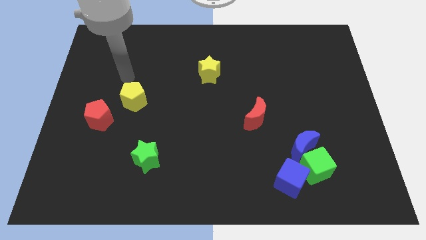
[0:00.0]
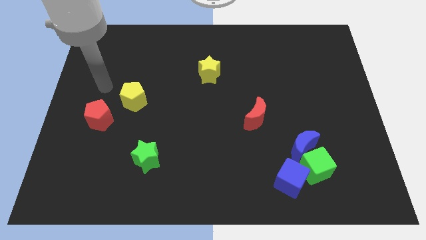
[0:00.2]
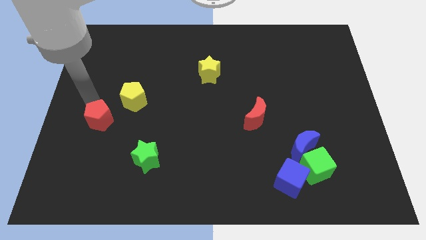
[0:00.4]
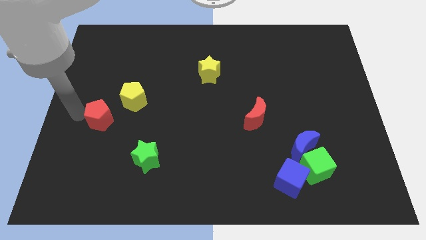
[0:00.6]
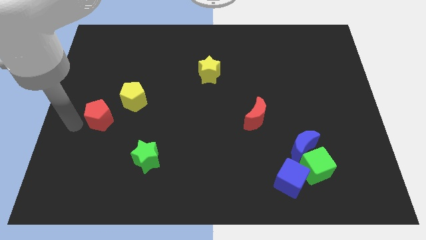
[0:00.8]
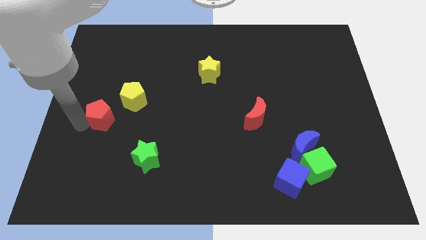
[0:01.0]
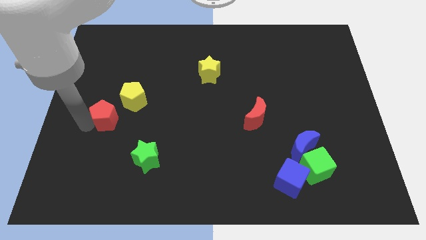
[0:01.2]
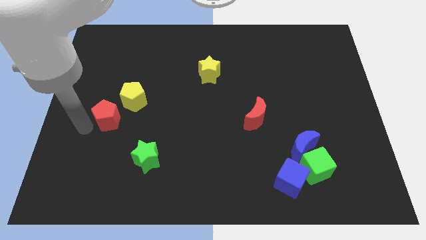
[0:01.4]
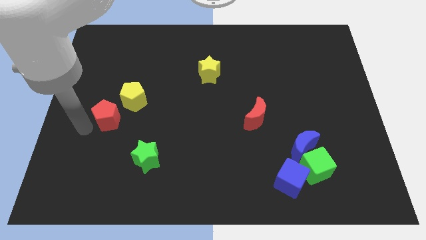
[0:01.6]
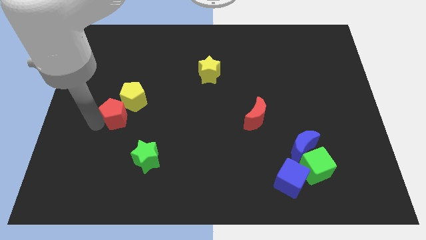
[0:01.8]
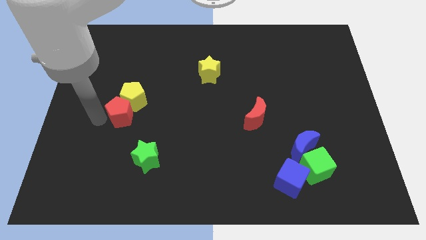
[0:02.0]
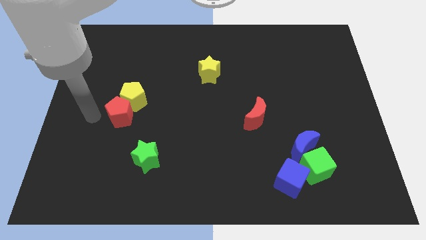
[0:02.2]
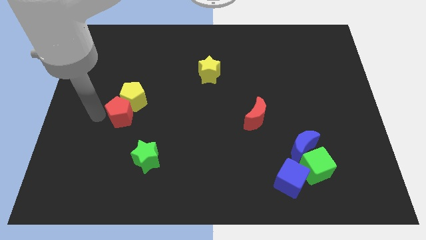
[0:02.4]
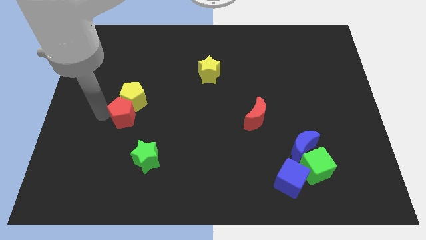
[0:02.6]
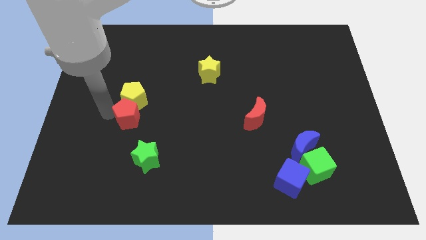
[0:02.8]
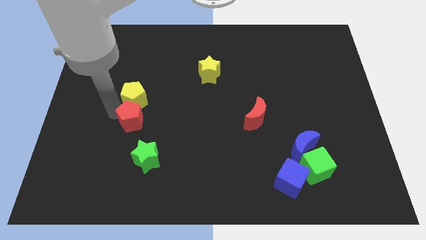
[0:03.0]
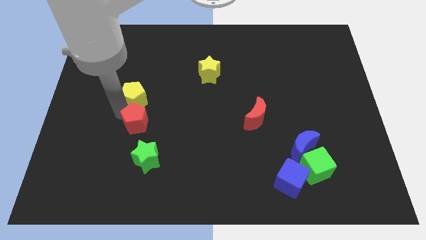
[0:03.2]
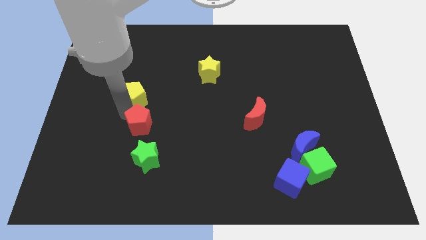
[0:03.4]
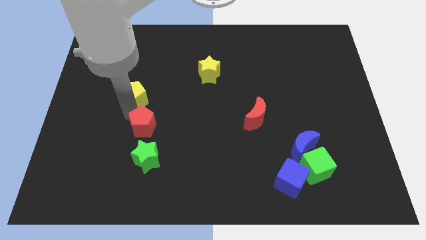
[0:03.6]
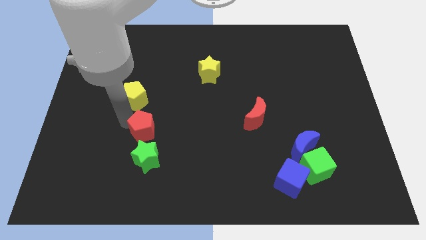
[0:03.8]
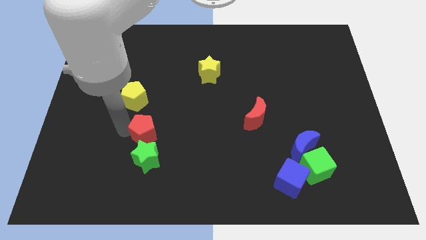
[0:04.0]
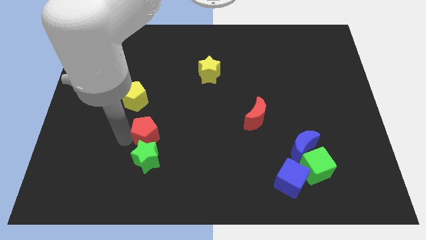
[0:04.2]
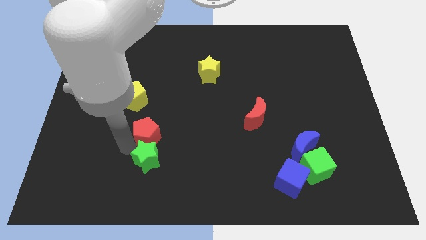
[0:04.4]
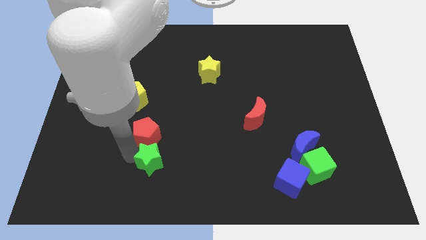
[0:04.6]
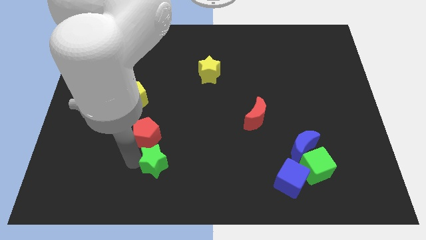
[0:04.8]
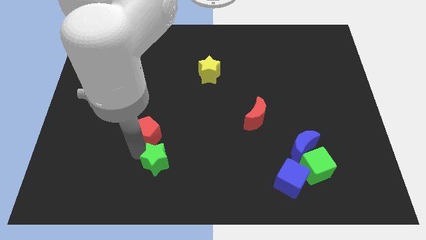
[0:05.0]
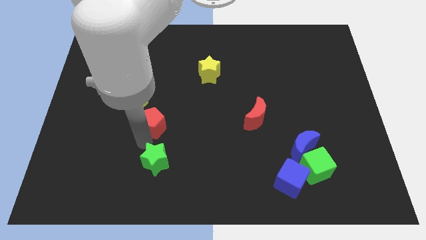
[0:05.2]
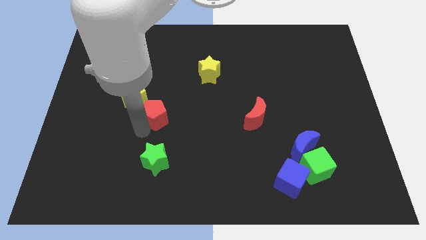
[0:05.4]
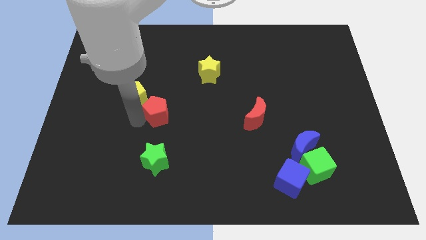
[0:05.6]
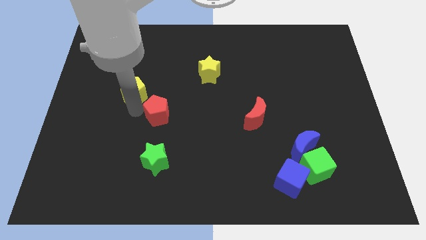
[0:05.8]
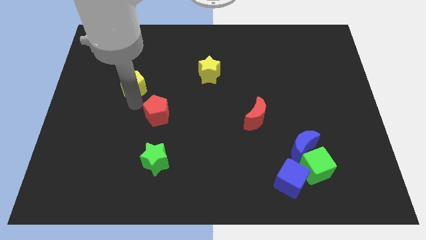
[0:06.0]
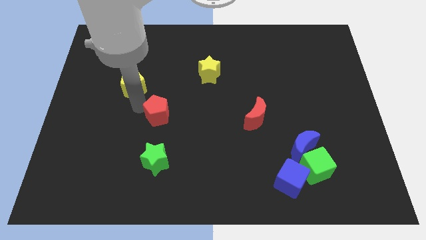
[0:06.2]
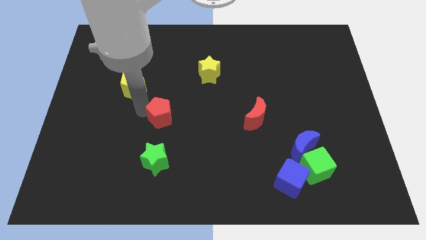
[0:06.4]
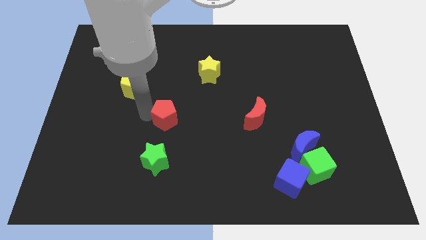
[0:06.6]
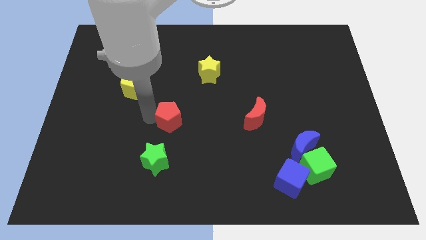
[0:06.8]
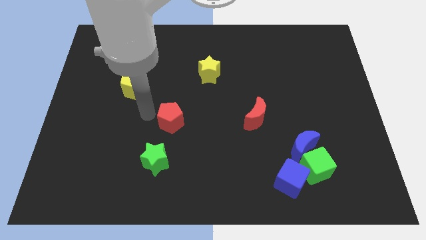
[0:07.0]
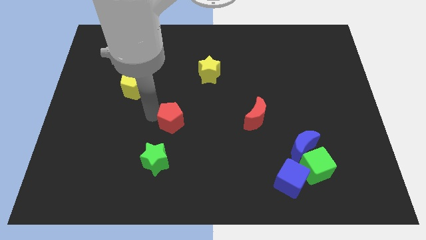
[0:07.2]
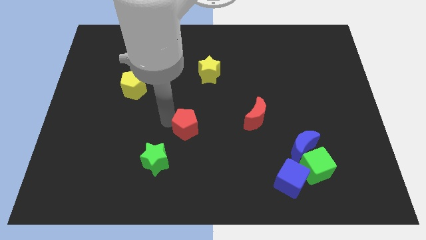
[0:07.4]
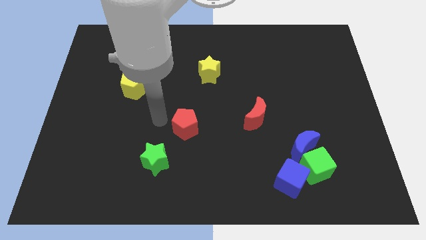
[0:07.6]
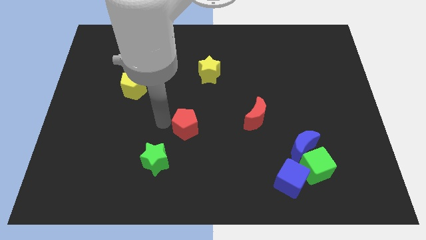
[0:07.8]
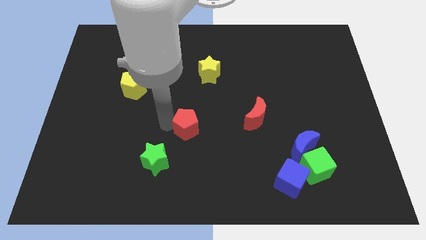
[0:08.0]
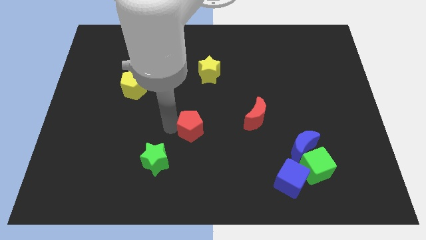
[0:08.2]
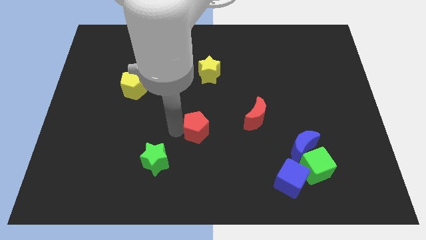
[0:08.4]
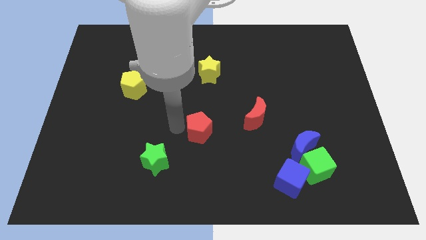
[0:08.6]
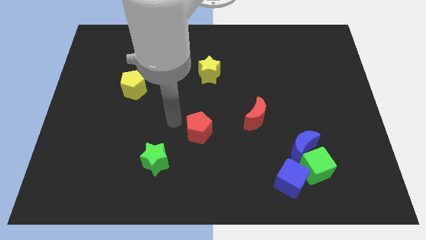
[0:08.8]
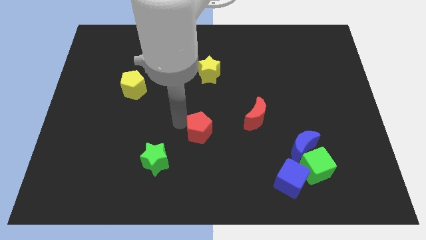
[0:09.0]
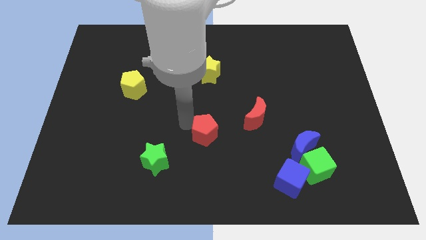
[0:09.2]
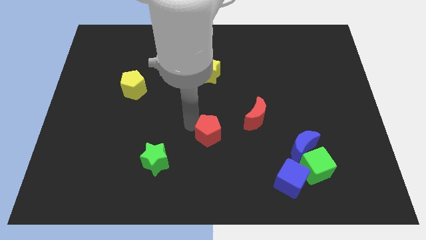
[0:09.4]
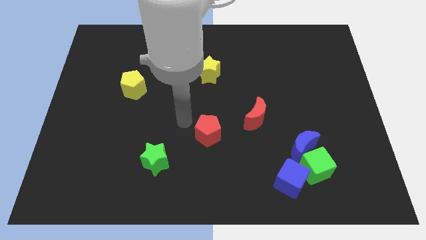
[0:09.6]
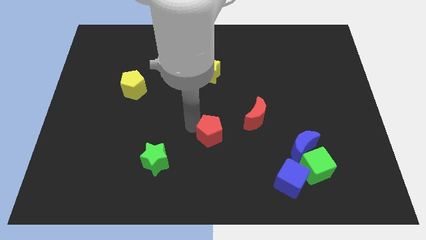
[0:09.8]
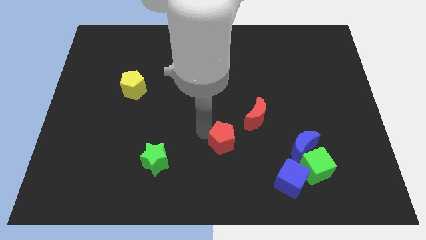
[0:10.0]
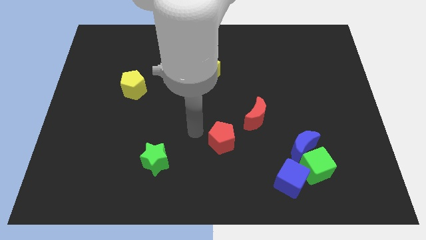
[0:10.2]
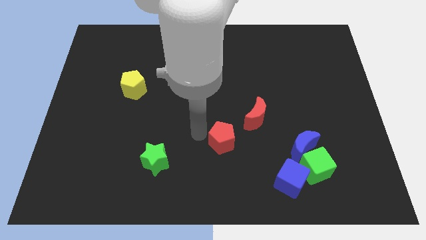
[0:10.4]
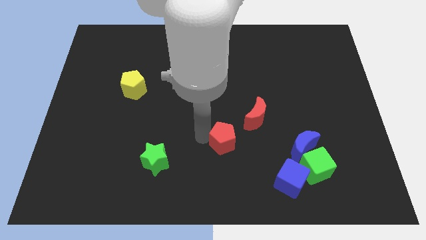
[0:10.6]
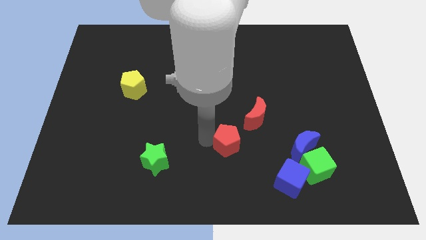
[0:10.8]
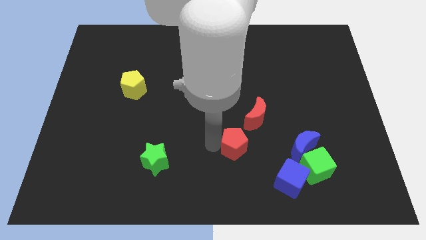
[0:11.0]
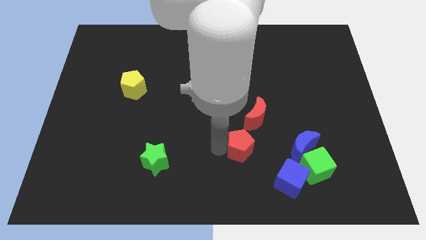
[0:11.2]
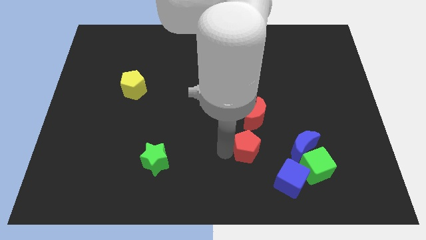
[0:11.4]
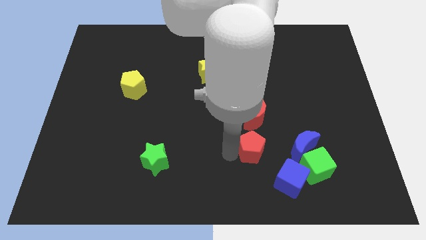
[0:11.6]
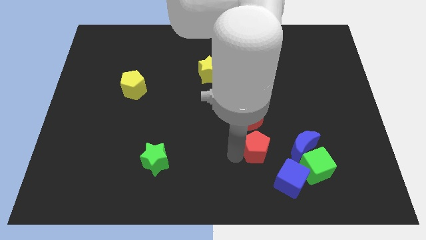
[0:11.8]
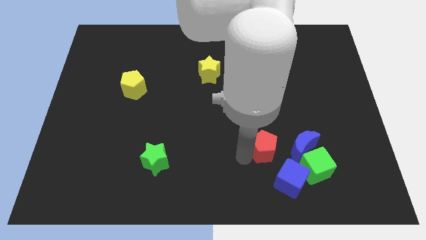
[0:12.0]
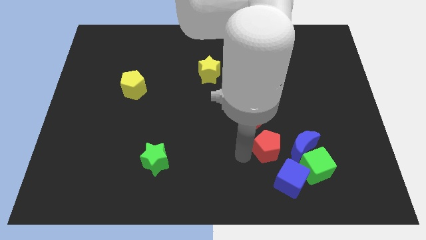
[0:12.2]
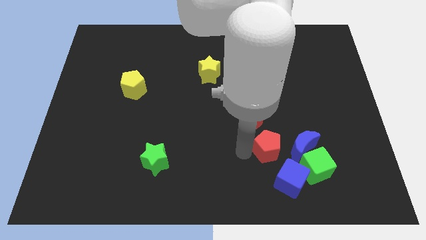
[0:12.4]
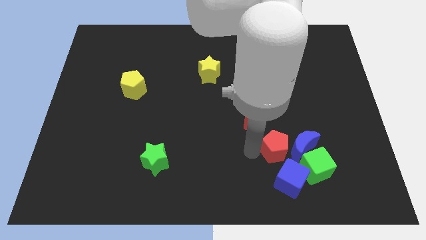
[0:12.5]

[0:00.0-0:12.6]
move the red pentagon next to the blue moon
